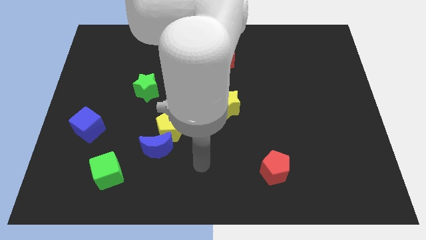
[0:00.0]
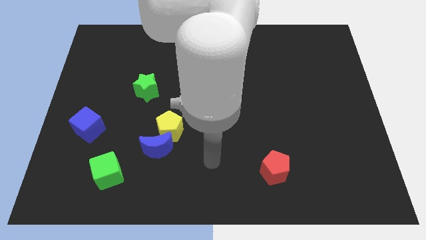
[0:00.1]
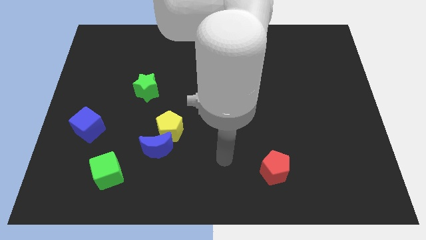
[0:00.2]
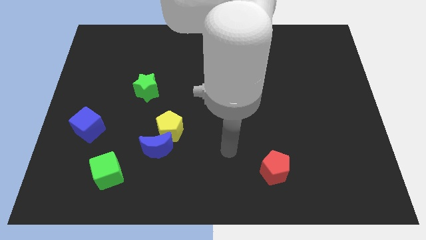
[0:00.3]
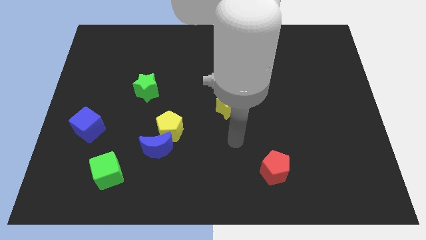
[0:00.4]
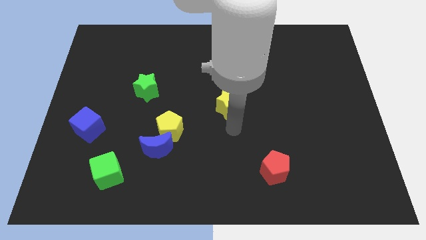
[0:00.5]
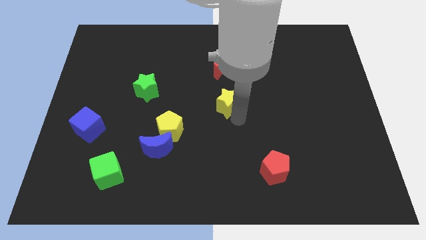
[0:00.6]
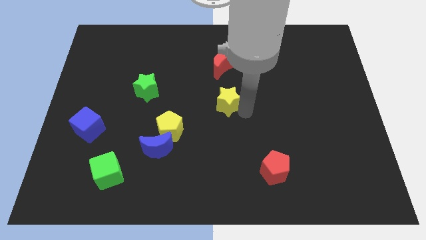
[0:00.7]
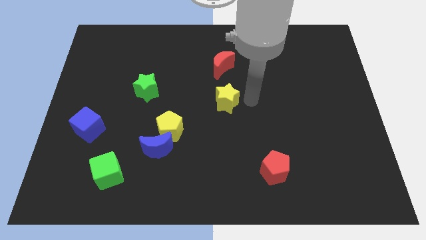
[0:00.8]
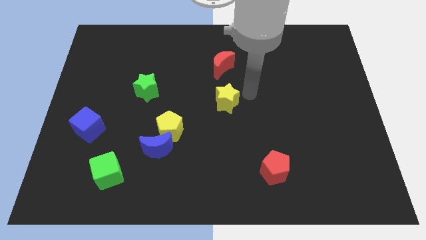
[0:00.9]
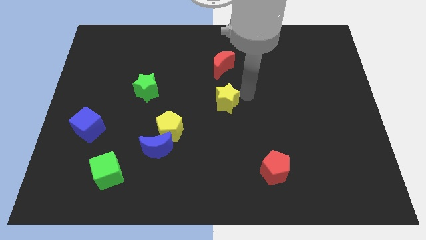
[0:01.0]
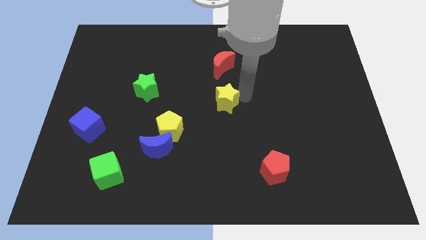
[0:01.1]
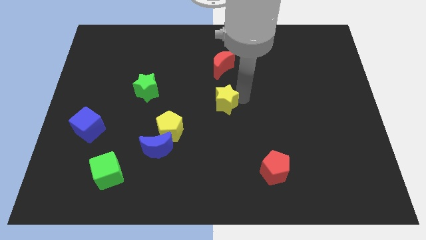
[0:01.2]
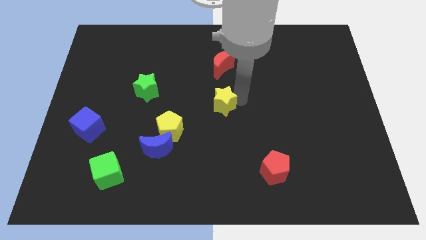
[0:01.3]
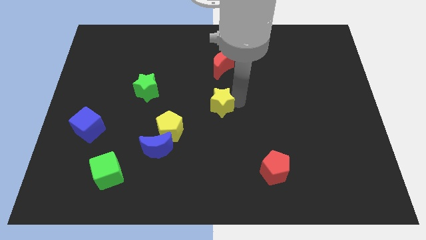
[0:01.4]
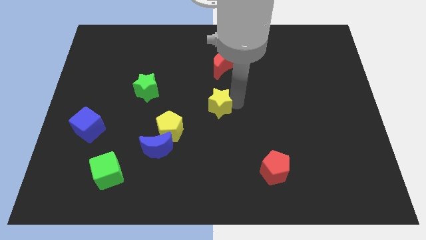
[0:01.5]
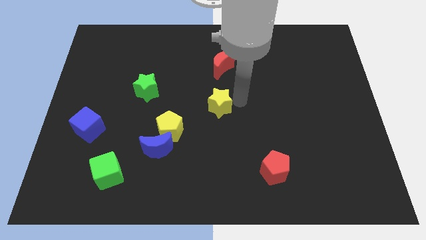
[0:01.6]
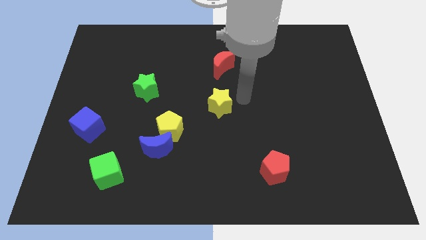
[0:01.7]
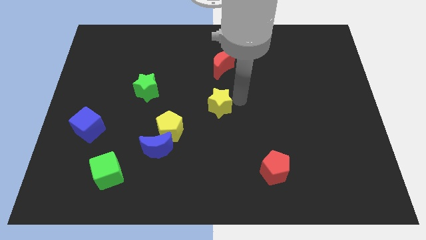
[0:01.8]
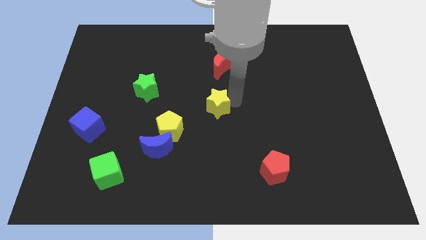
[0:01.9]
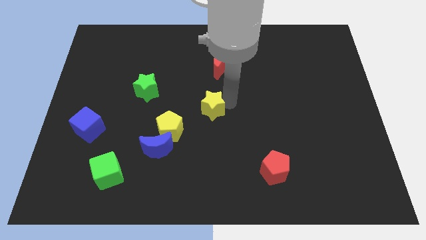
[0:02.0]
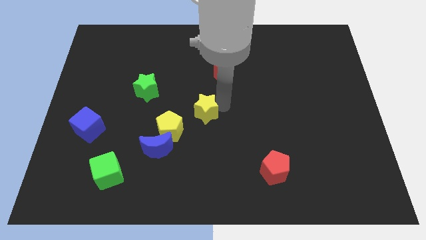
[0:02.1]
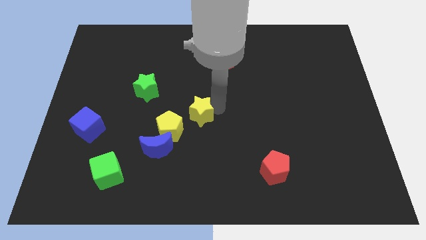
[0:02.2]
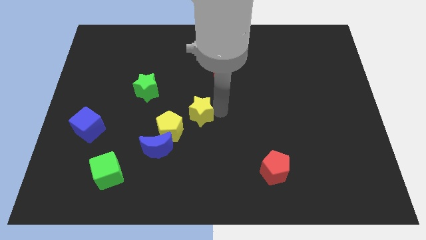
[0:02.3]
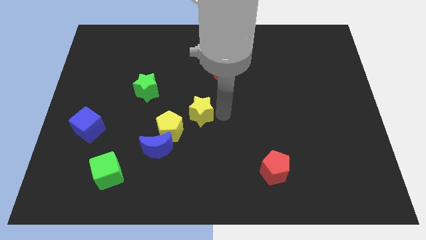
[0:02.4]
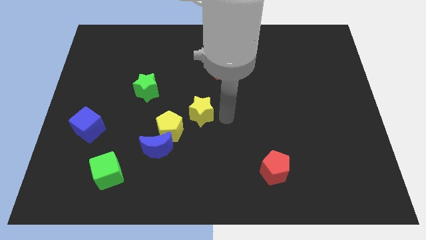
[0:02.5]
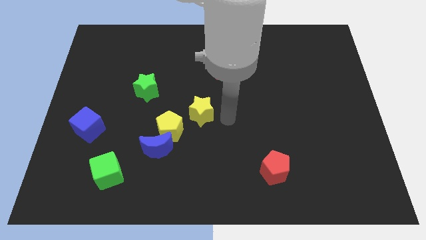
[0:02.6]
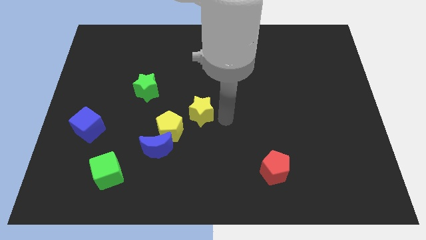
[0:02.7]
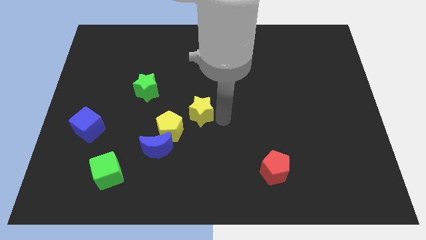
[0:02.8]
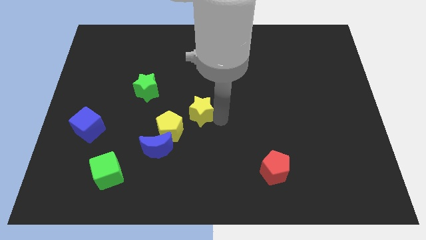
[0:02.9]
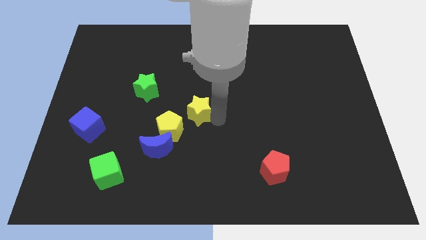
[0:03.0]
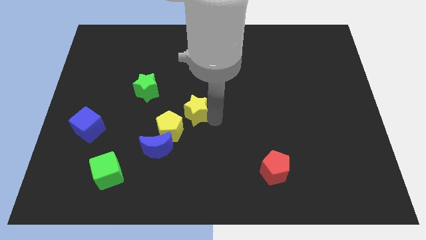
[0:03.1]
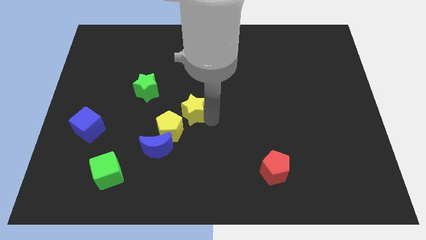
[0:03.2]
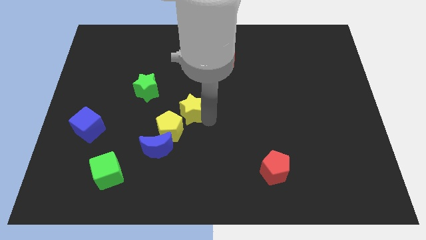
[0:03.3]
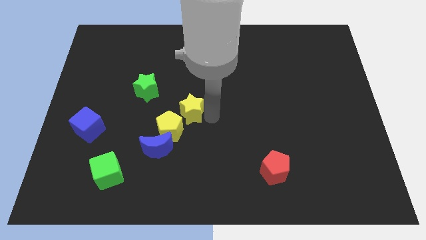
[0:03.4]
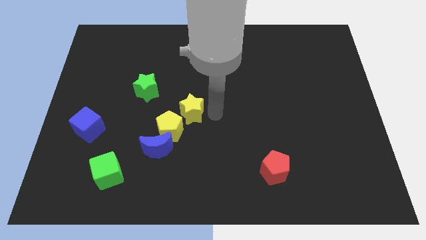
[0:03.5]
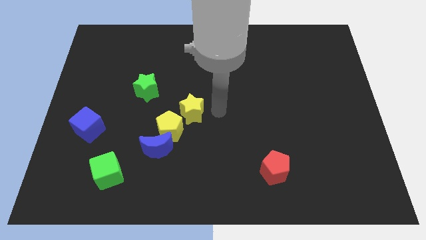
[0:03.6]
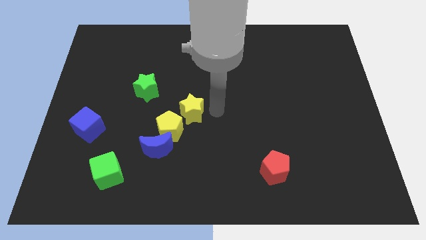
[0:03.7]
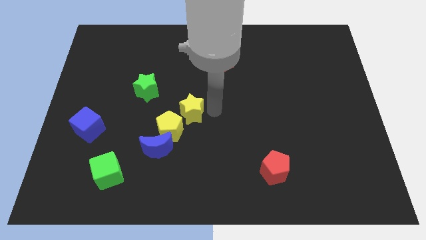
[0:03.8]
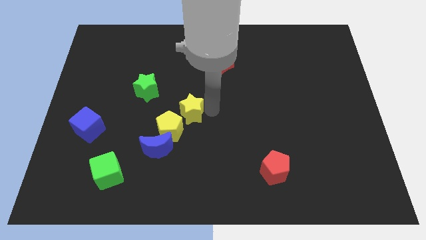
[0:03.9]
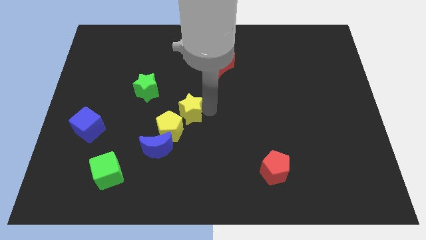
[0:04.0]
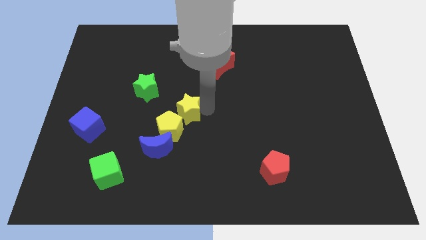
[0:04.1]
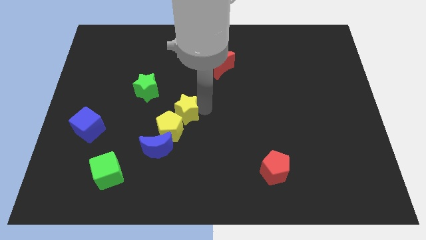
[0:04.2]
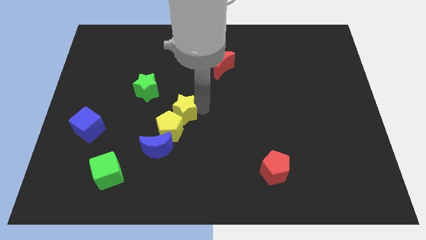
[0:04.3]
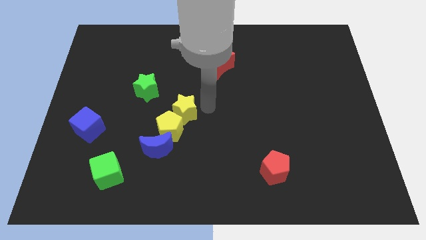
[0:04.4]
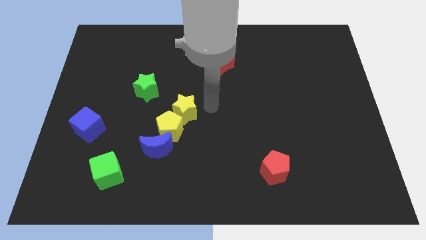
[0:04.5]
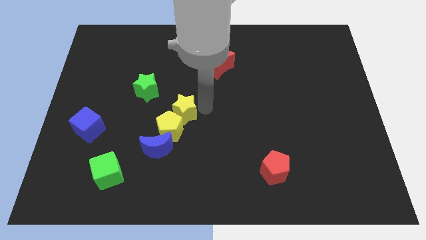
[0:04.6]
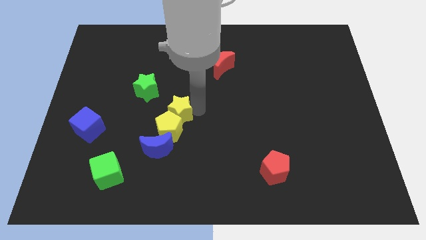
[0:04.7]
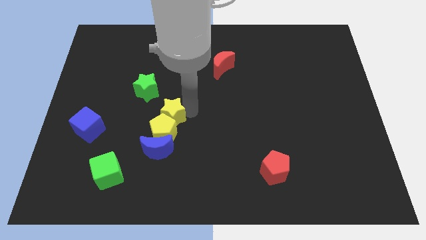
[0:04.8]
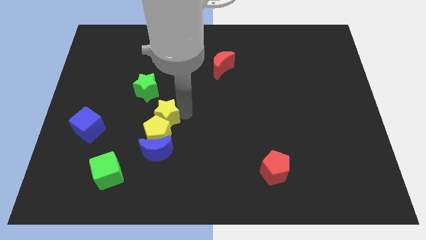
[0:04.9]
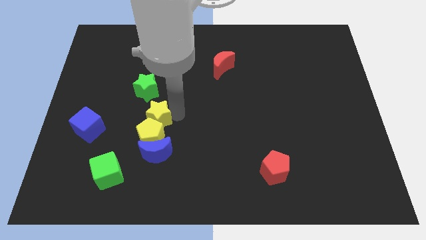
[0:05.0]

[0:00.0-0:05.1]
slide the yellow star to the bottom of the green star

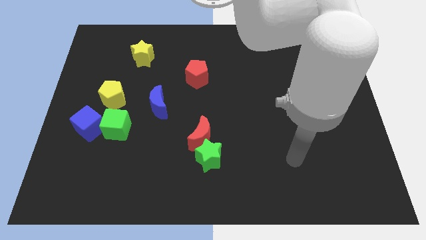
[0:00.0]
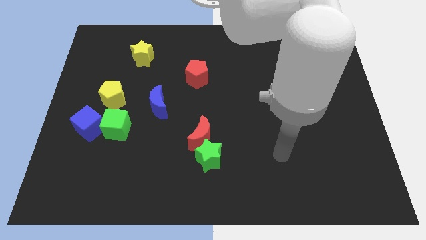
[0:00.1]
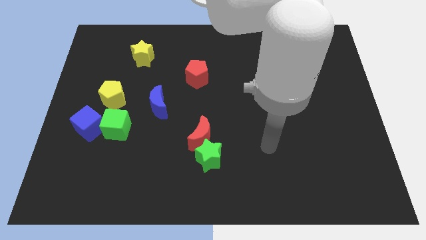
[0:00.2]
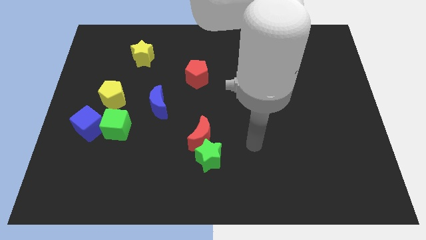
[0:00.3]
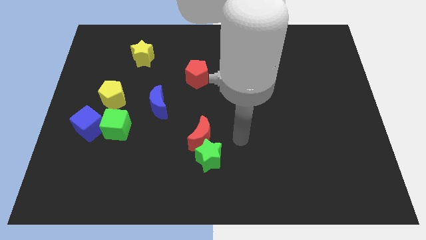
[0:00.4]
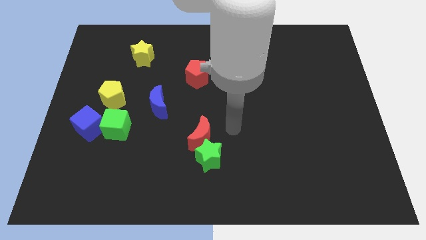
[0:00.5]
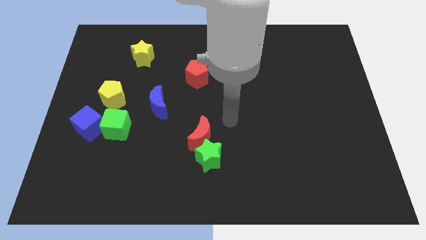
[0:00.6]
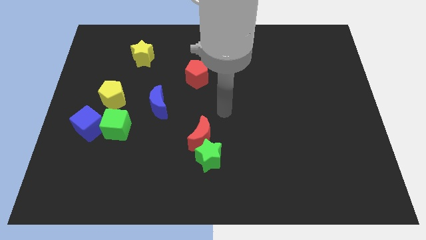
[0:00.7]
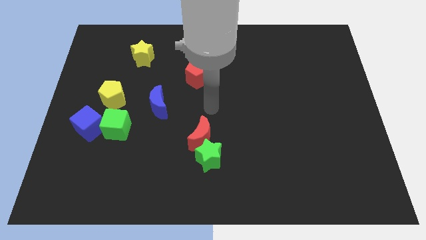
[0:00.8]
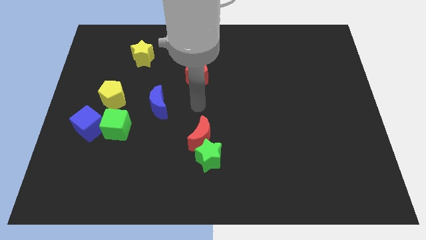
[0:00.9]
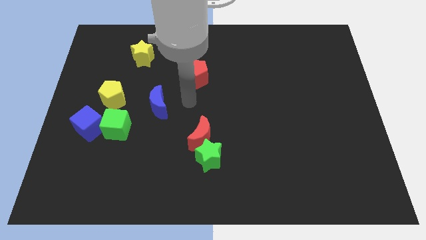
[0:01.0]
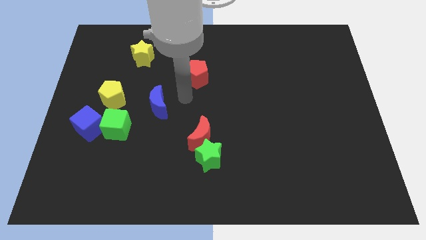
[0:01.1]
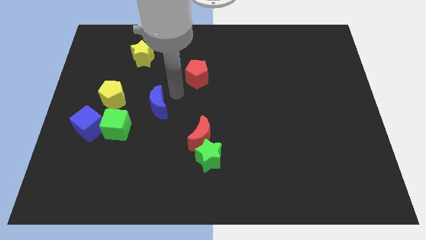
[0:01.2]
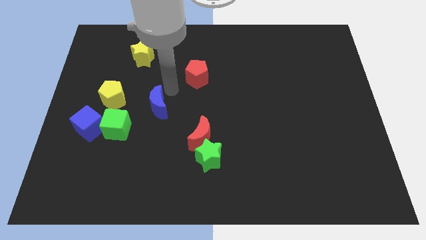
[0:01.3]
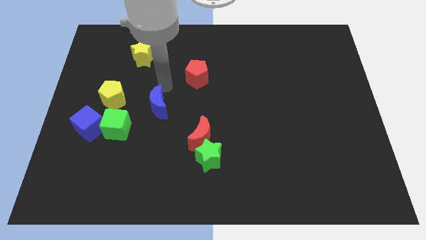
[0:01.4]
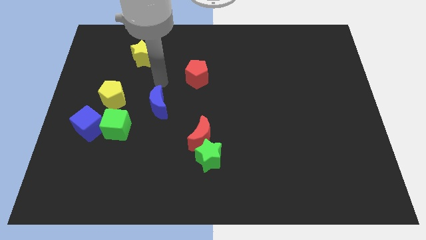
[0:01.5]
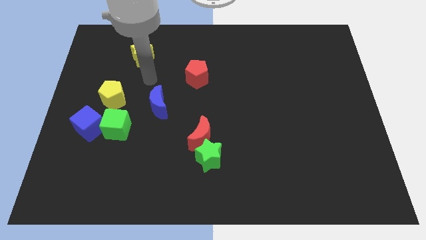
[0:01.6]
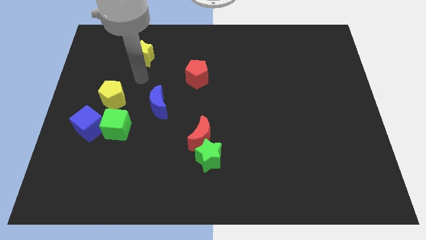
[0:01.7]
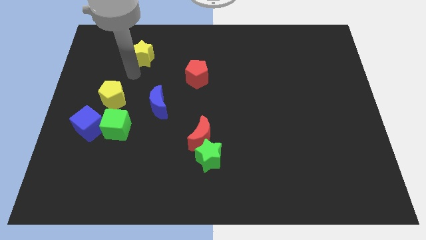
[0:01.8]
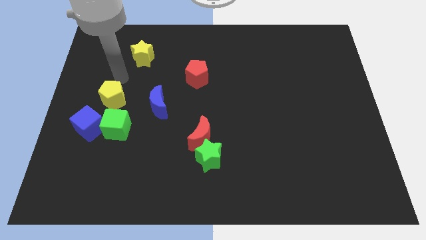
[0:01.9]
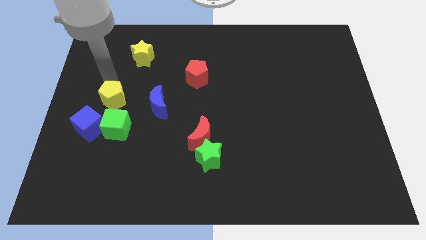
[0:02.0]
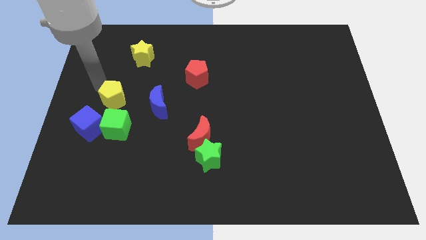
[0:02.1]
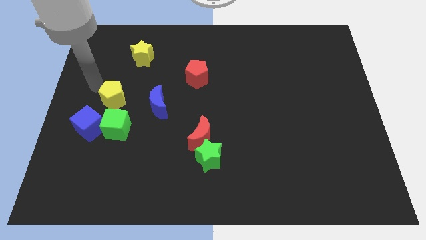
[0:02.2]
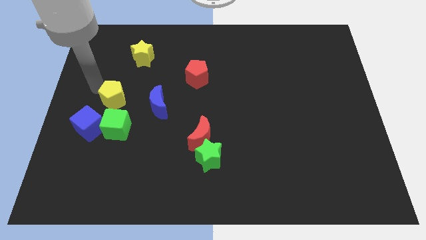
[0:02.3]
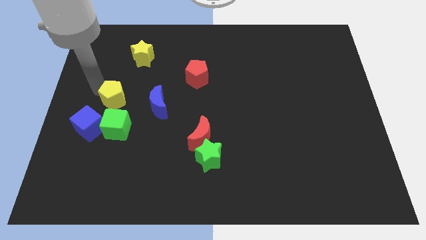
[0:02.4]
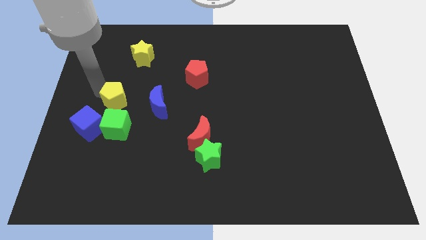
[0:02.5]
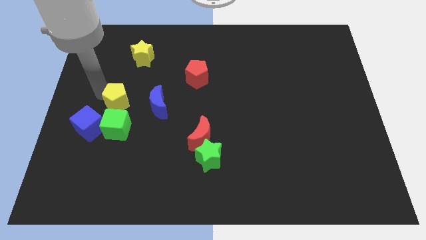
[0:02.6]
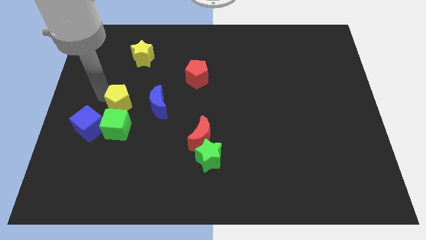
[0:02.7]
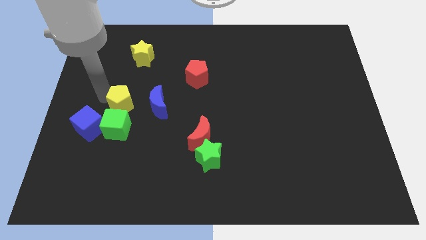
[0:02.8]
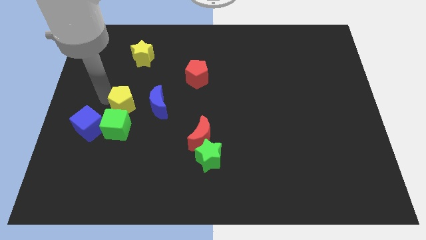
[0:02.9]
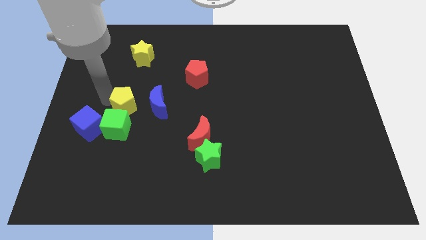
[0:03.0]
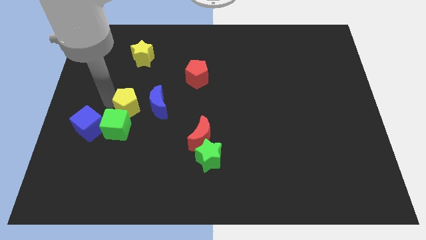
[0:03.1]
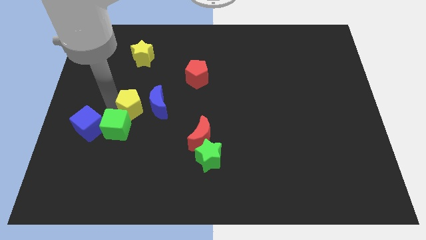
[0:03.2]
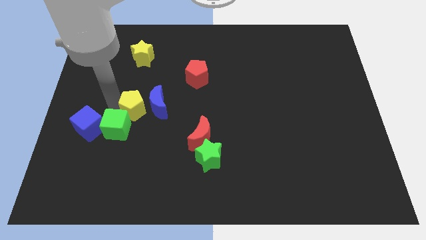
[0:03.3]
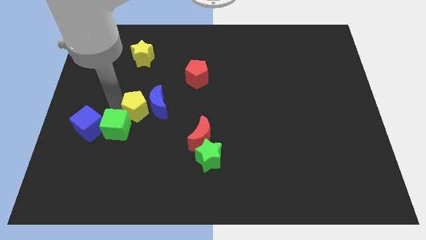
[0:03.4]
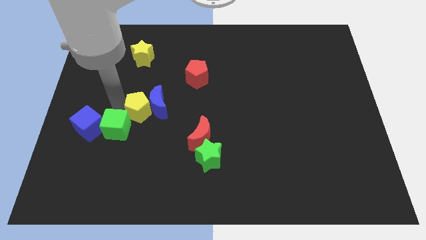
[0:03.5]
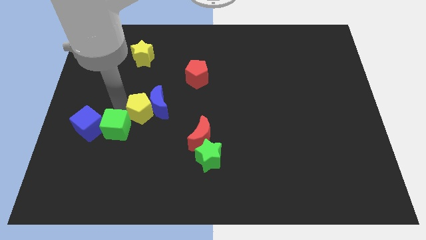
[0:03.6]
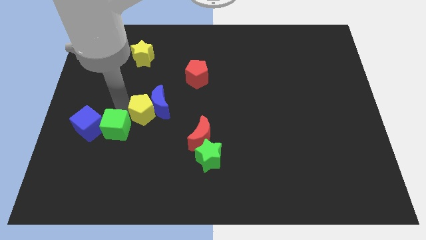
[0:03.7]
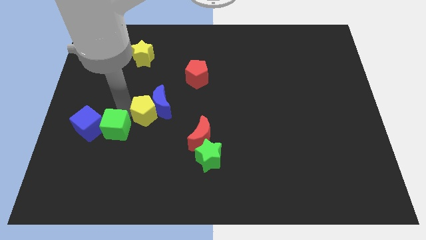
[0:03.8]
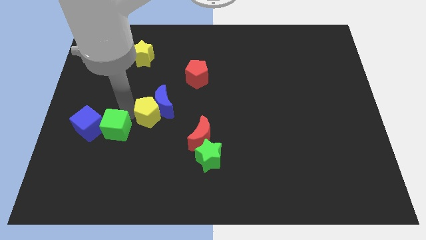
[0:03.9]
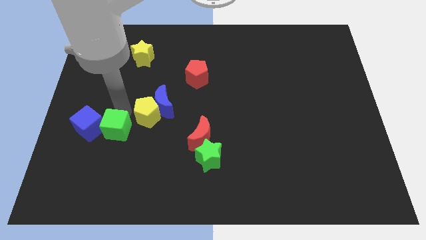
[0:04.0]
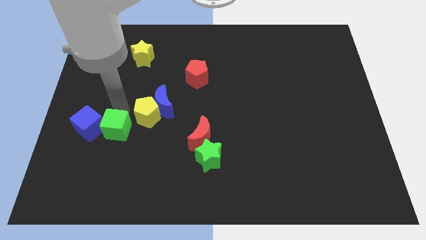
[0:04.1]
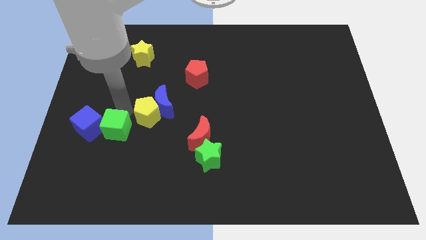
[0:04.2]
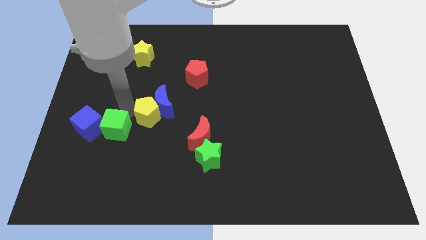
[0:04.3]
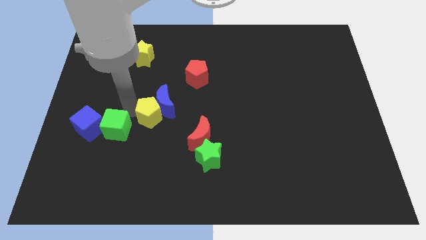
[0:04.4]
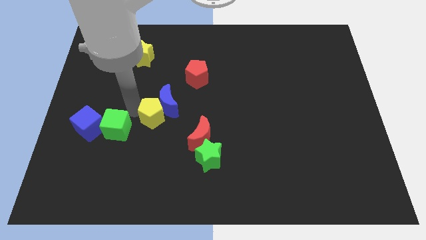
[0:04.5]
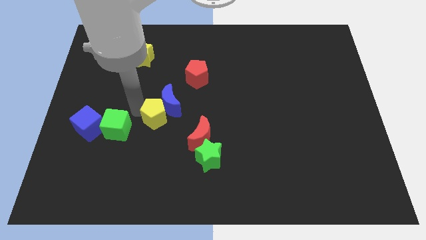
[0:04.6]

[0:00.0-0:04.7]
put the yellow pentagon to the top left side of the red moon
